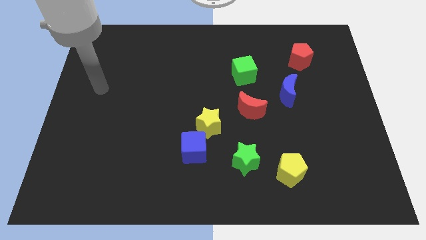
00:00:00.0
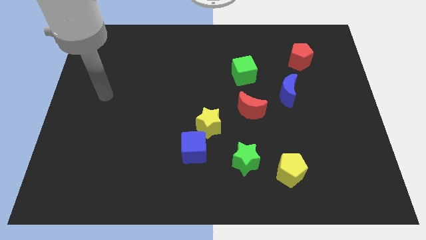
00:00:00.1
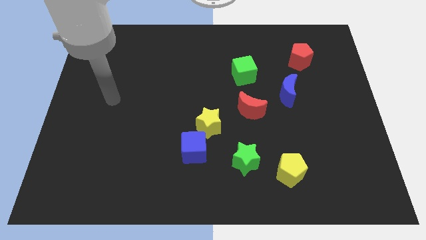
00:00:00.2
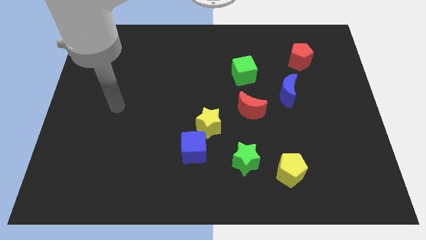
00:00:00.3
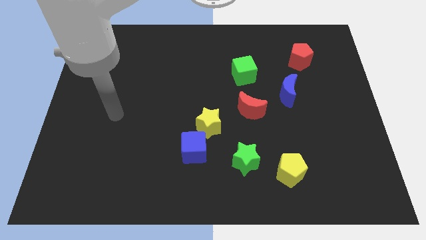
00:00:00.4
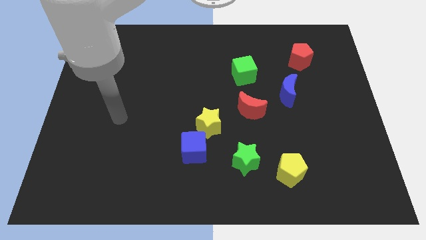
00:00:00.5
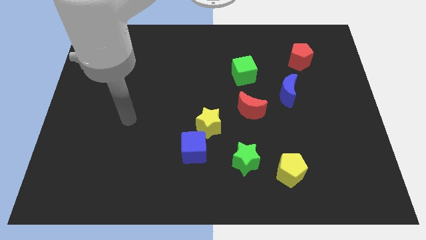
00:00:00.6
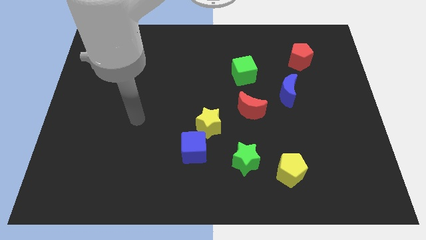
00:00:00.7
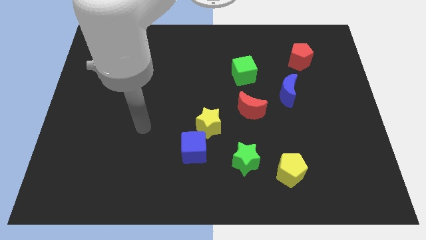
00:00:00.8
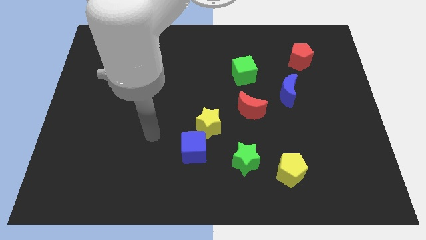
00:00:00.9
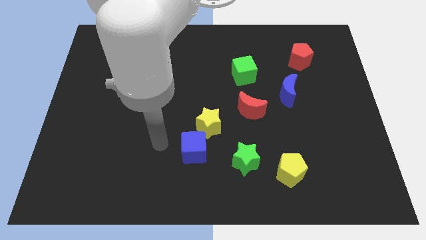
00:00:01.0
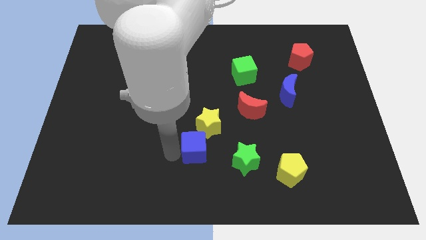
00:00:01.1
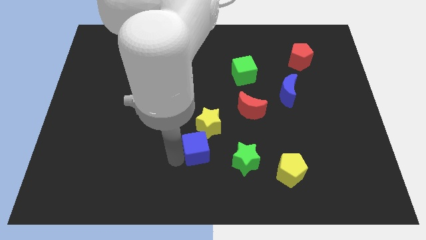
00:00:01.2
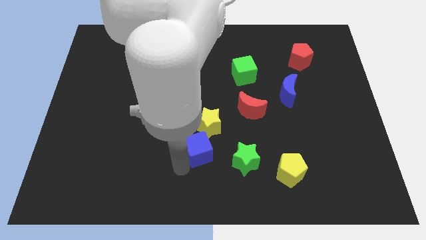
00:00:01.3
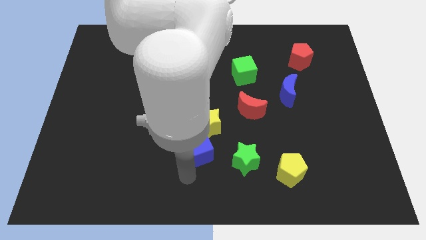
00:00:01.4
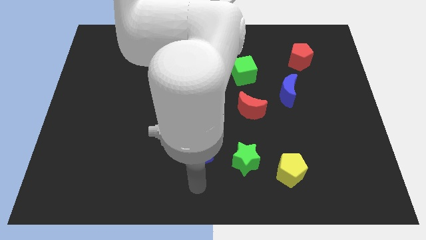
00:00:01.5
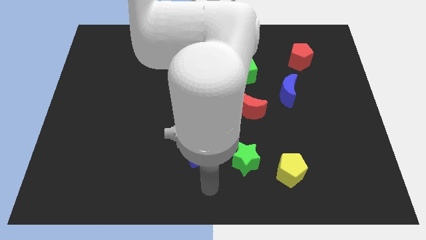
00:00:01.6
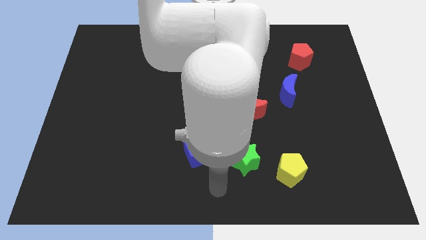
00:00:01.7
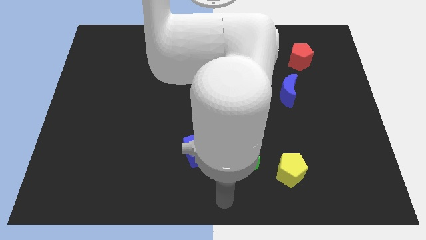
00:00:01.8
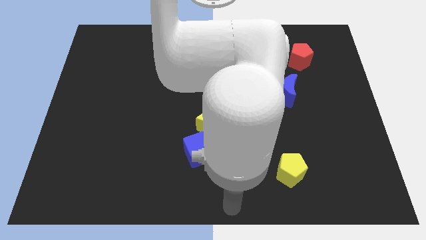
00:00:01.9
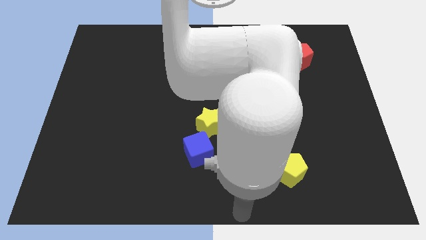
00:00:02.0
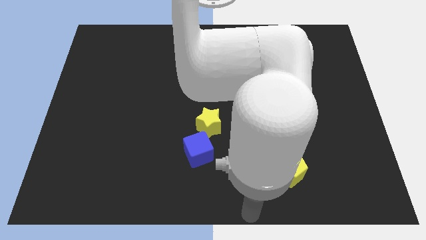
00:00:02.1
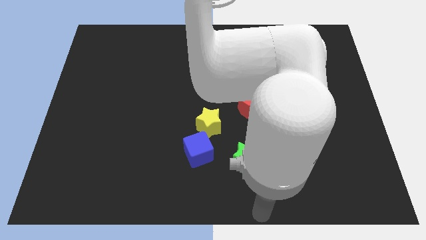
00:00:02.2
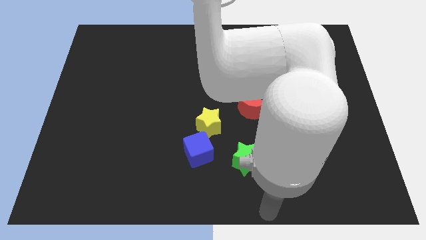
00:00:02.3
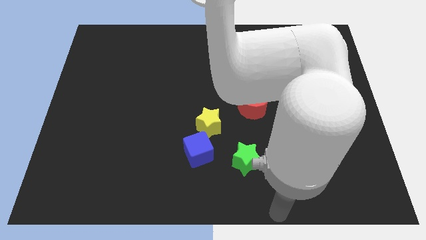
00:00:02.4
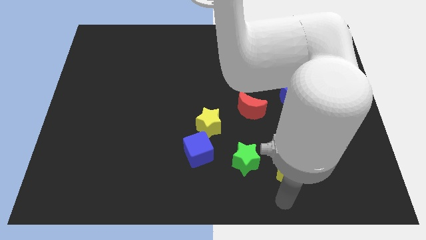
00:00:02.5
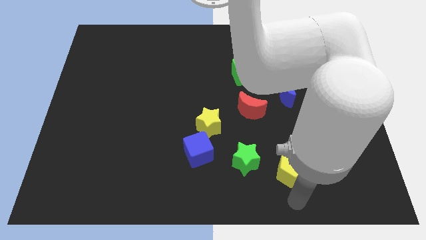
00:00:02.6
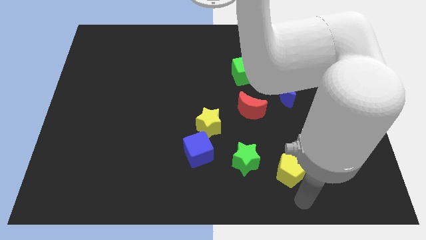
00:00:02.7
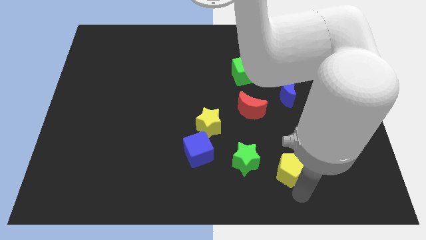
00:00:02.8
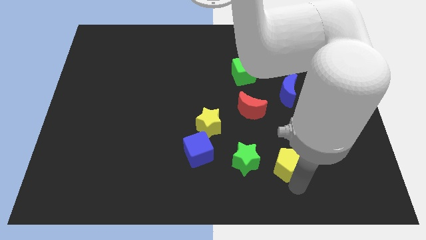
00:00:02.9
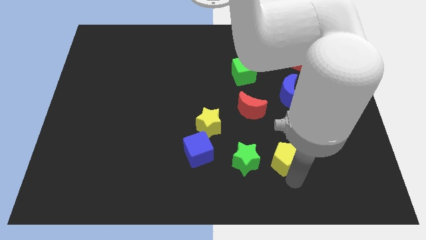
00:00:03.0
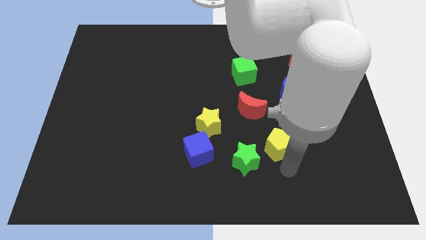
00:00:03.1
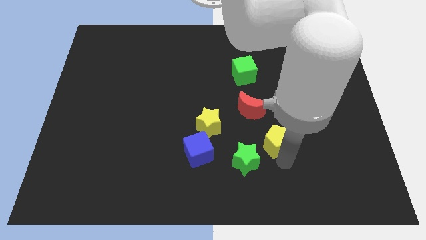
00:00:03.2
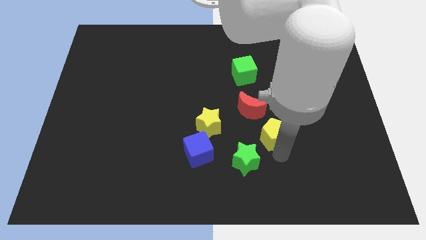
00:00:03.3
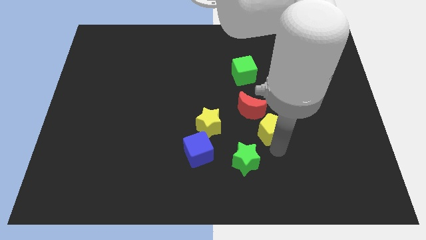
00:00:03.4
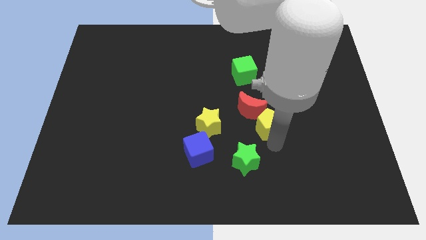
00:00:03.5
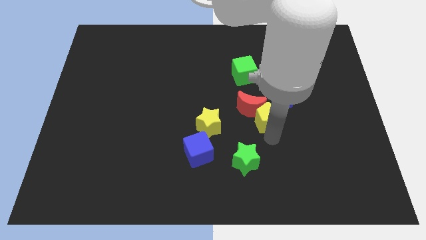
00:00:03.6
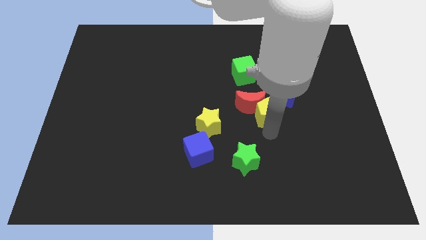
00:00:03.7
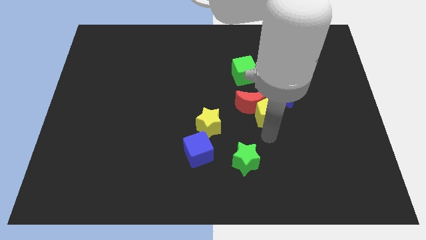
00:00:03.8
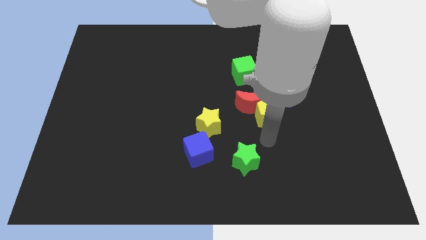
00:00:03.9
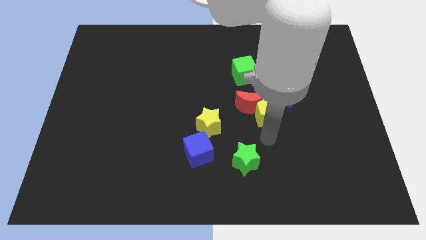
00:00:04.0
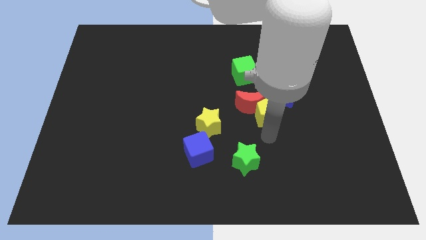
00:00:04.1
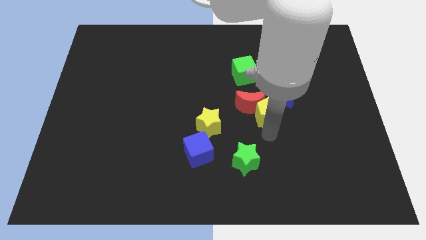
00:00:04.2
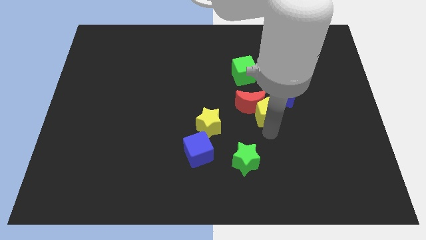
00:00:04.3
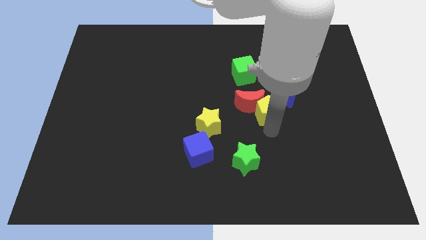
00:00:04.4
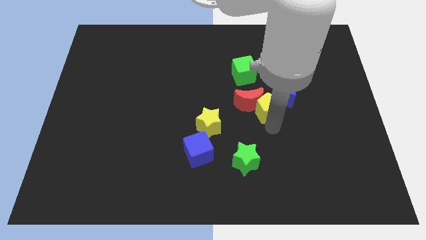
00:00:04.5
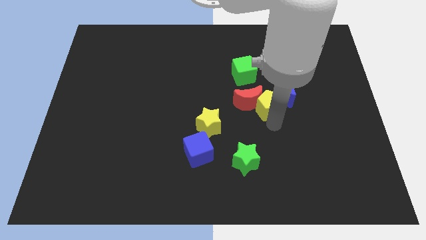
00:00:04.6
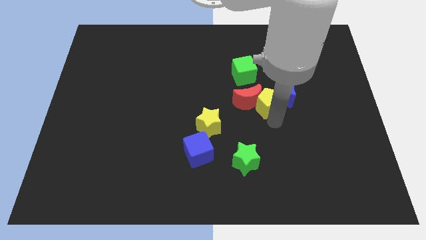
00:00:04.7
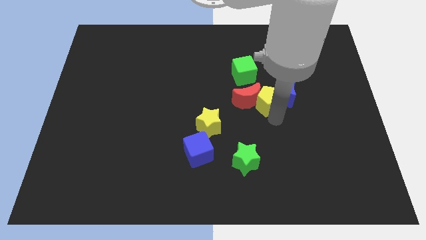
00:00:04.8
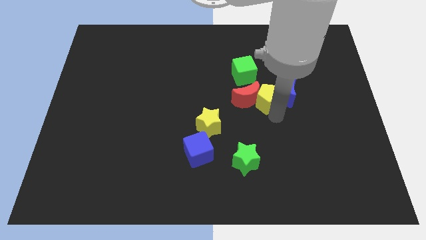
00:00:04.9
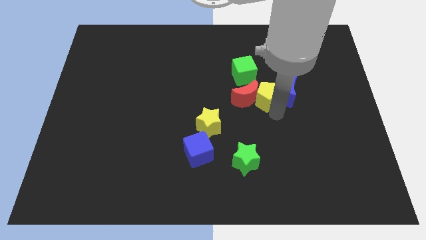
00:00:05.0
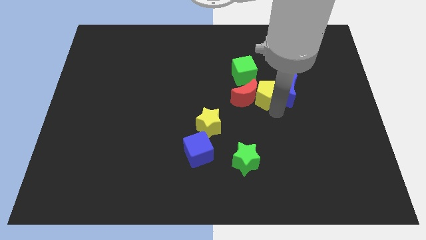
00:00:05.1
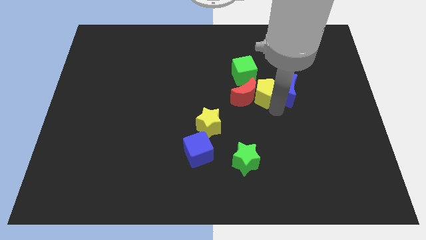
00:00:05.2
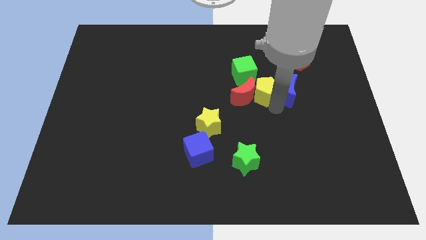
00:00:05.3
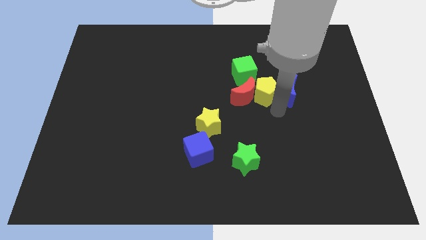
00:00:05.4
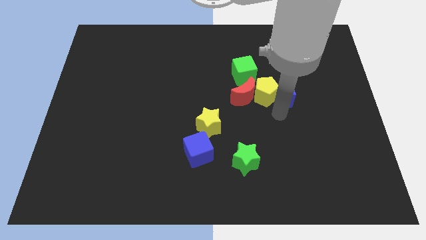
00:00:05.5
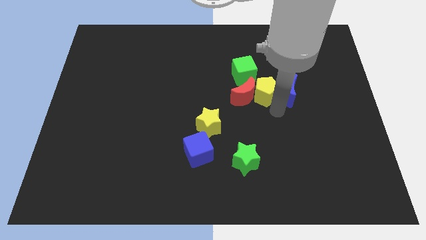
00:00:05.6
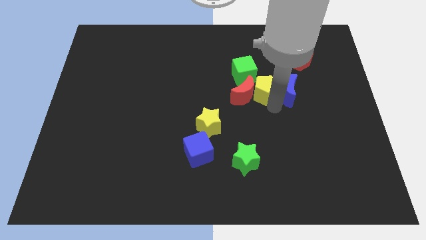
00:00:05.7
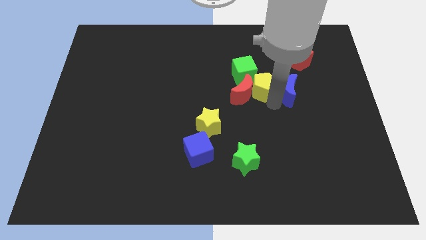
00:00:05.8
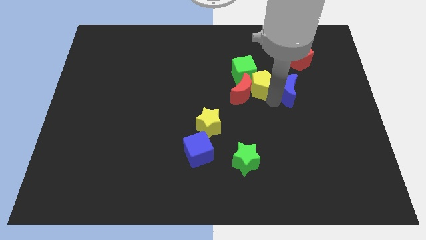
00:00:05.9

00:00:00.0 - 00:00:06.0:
move the yellow pentagon next to the green cube

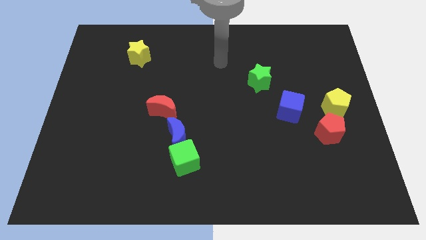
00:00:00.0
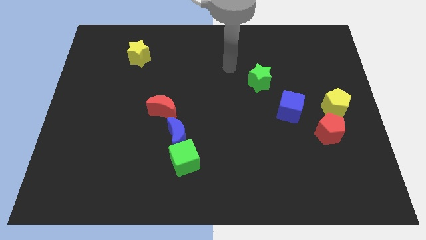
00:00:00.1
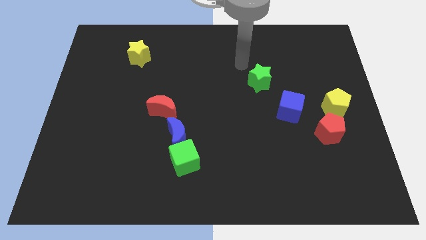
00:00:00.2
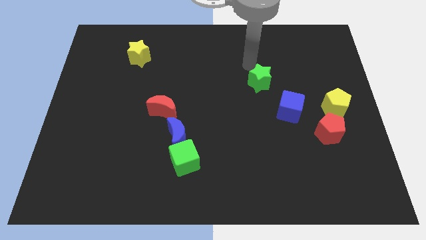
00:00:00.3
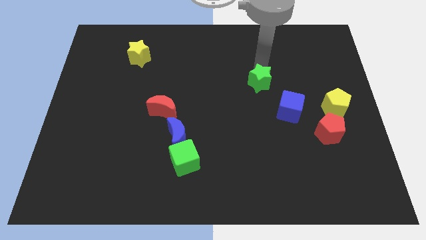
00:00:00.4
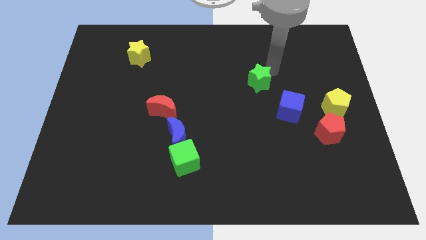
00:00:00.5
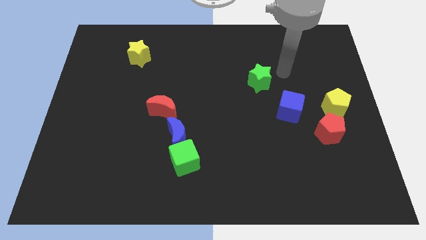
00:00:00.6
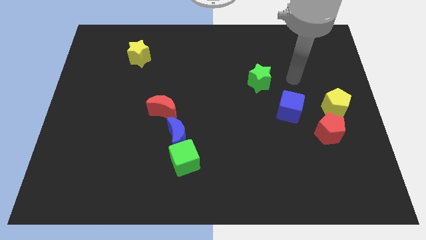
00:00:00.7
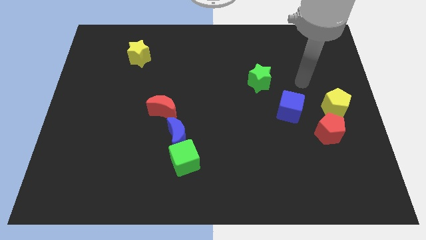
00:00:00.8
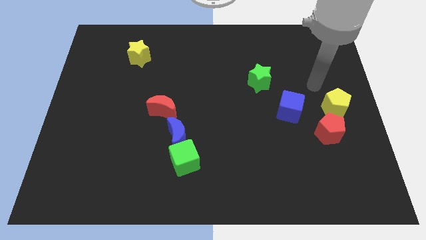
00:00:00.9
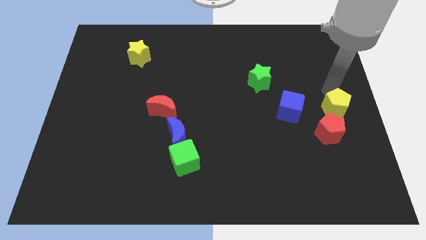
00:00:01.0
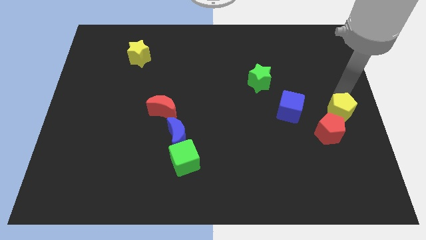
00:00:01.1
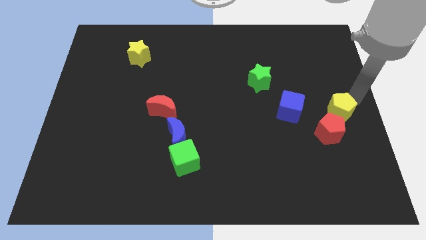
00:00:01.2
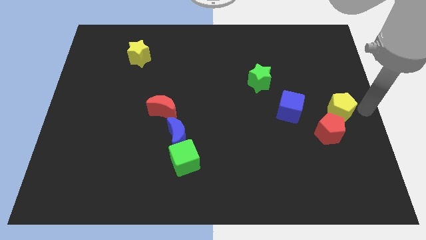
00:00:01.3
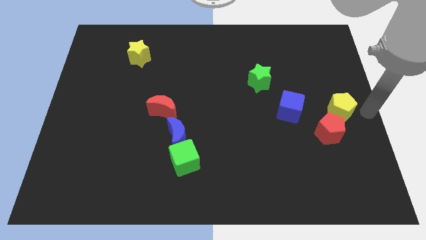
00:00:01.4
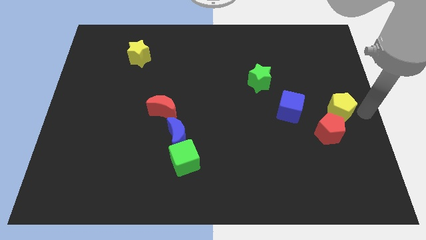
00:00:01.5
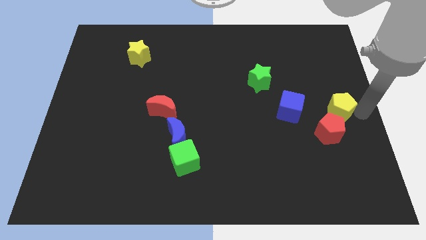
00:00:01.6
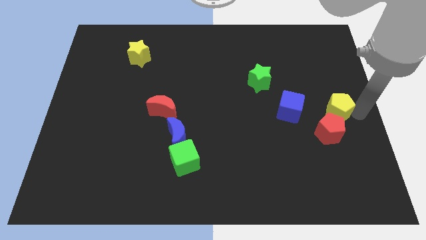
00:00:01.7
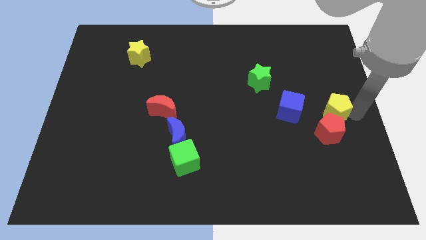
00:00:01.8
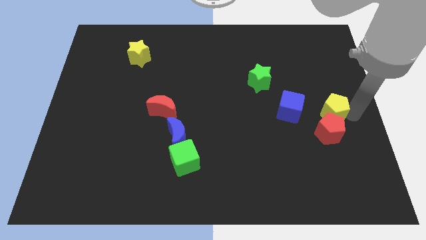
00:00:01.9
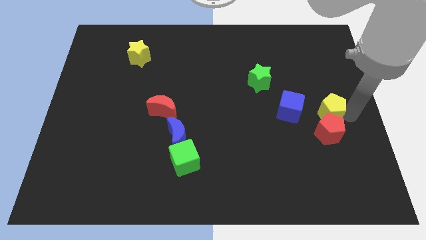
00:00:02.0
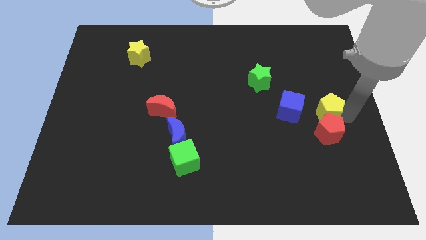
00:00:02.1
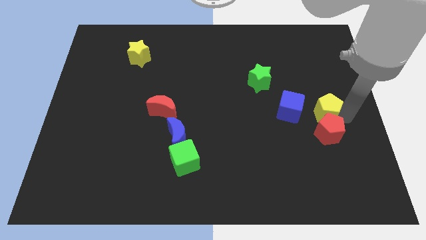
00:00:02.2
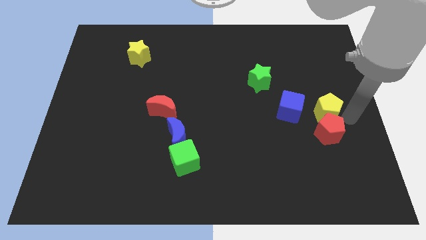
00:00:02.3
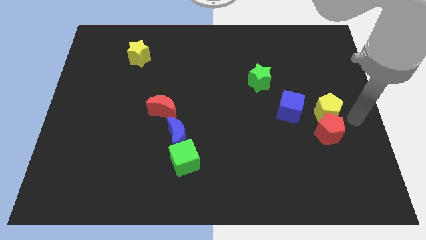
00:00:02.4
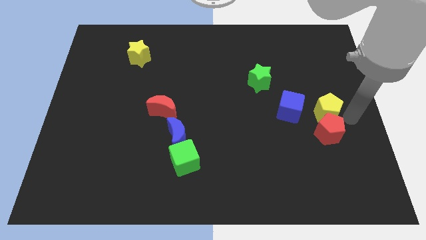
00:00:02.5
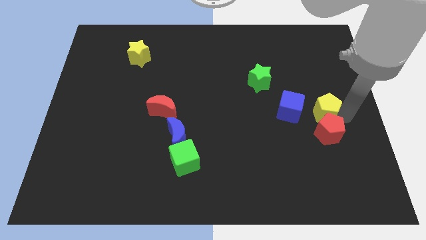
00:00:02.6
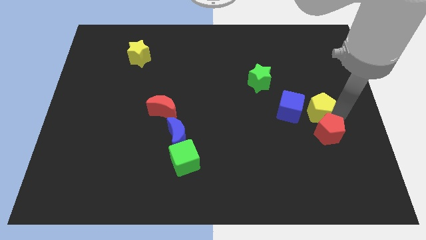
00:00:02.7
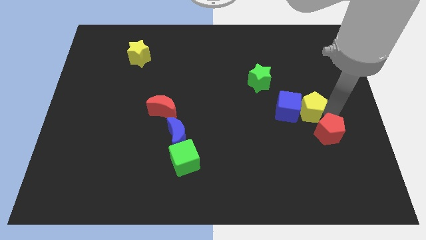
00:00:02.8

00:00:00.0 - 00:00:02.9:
slide the yellow pentagon close to the blue cube
